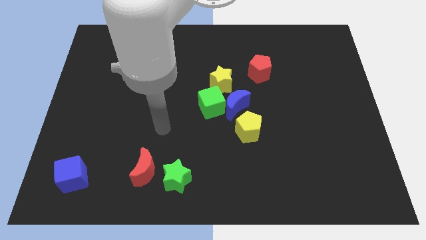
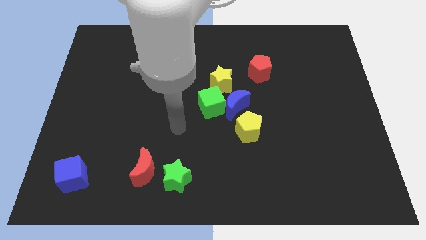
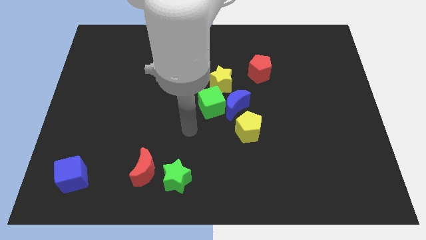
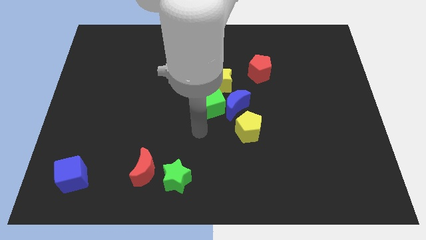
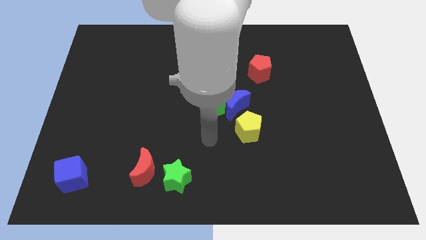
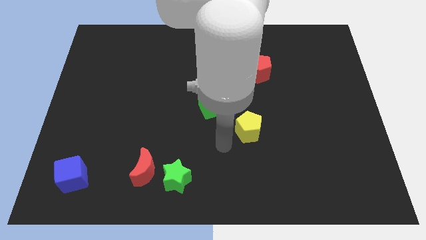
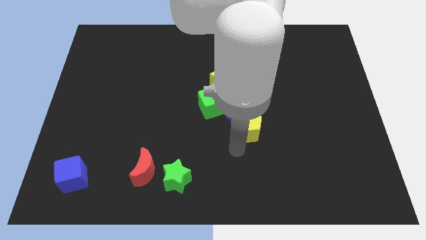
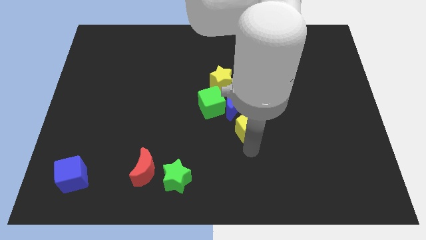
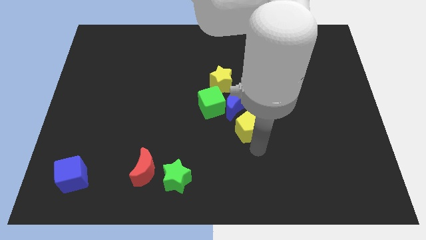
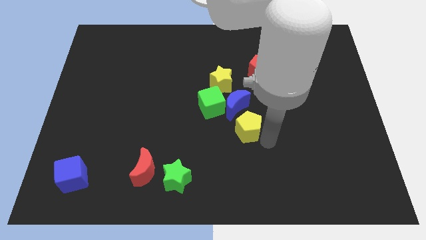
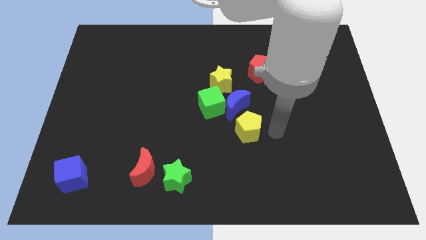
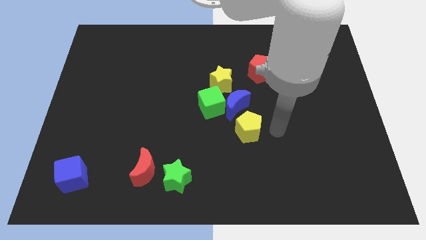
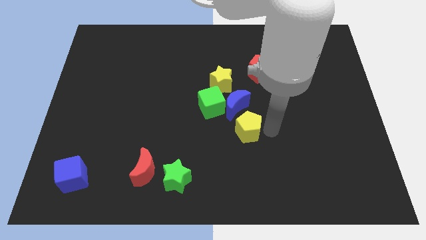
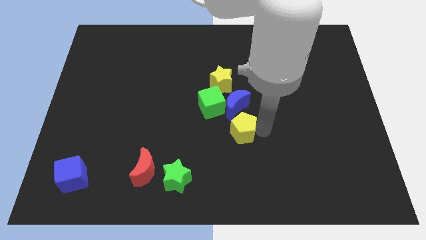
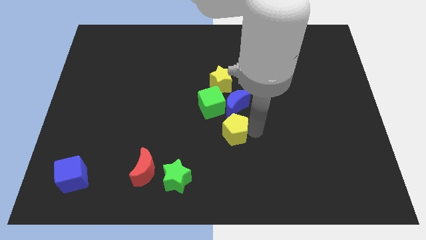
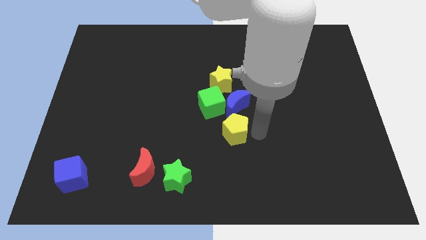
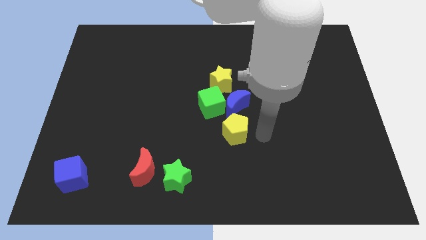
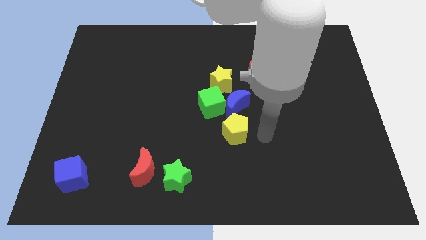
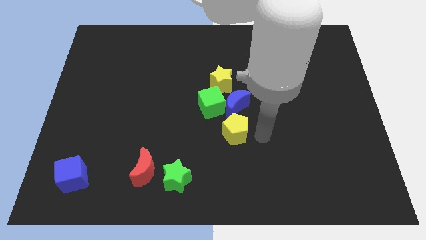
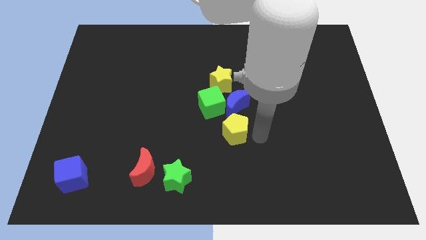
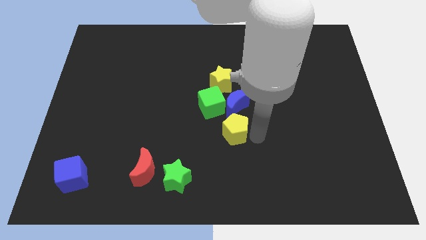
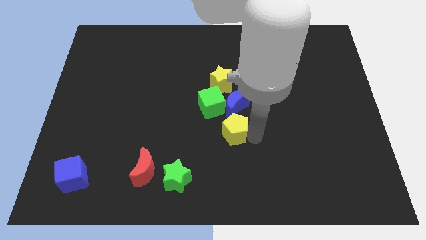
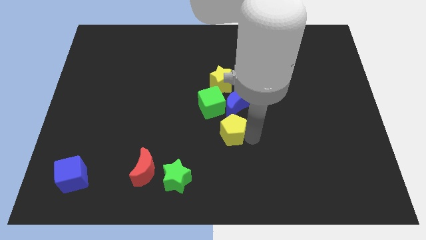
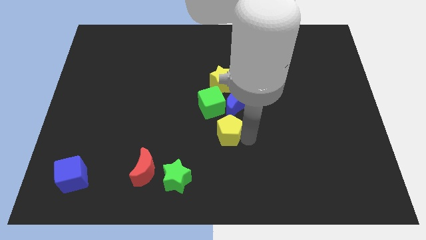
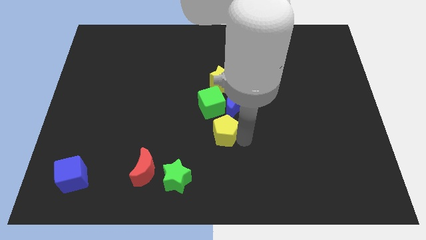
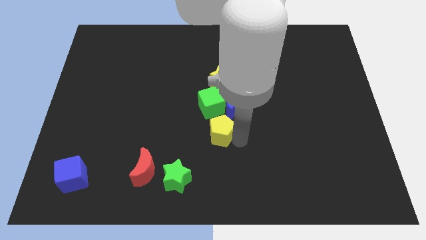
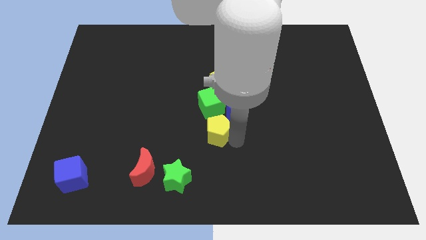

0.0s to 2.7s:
move the yellow pentagon left a little bit

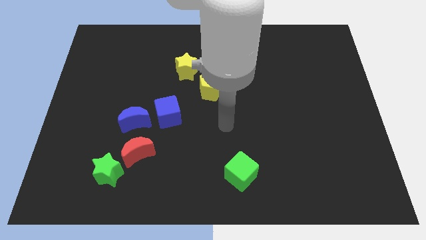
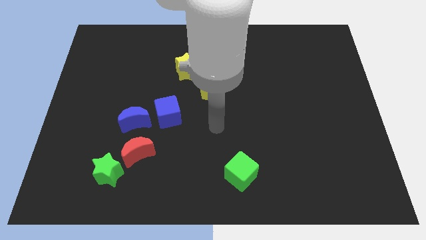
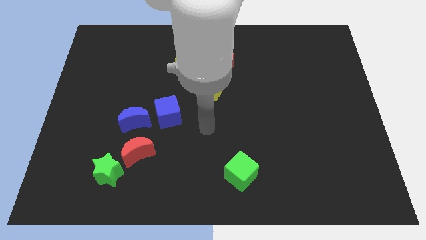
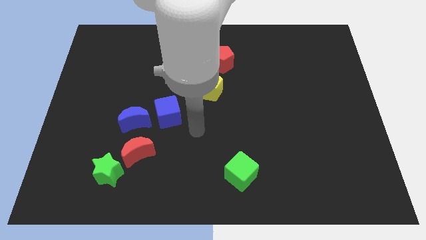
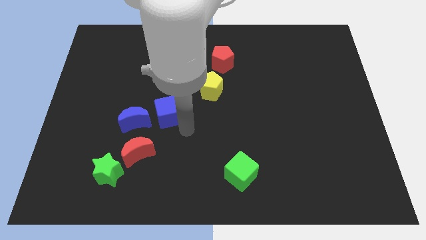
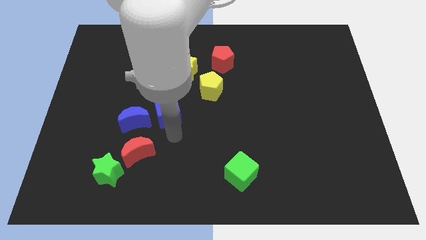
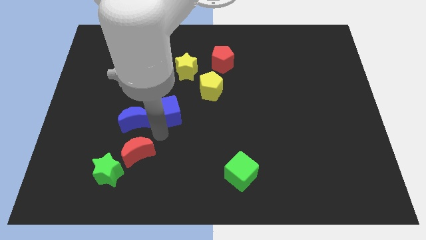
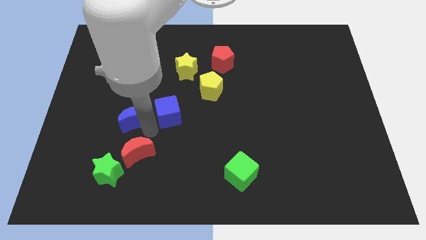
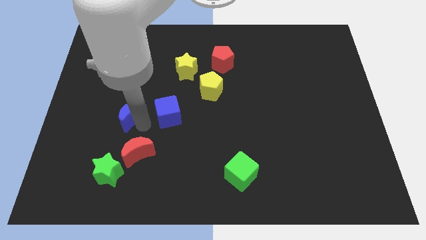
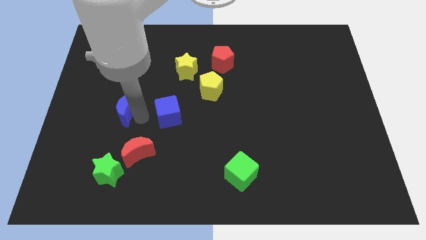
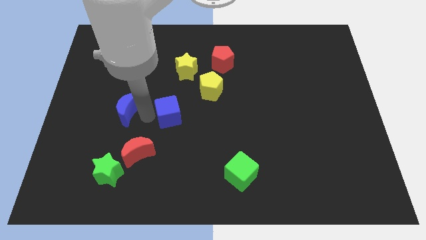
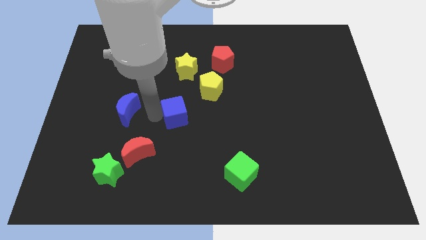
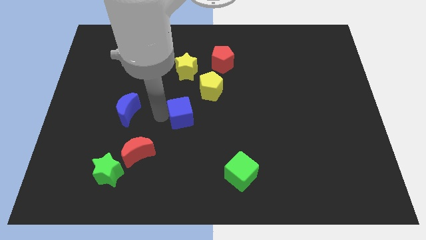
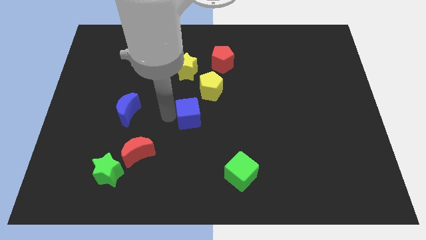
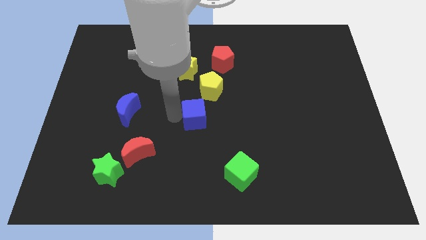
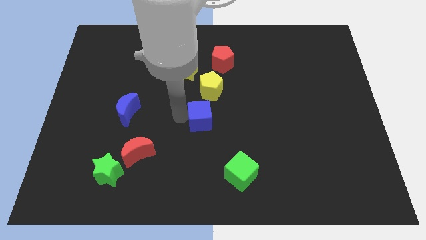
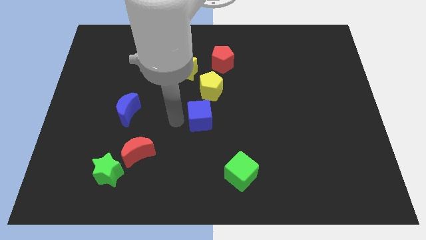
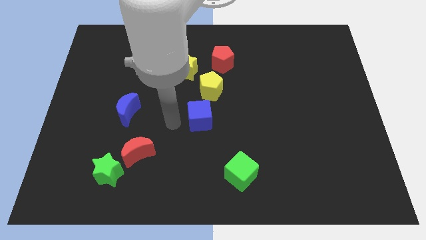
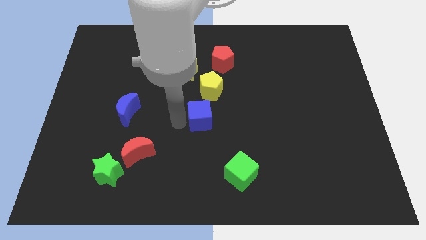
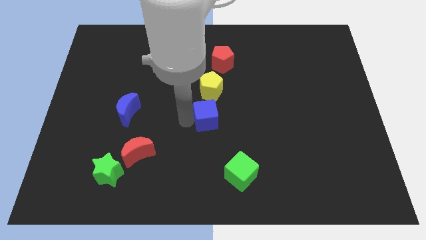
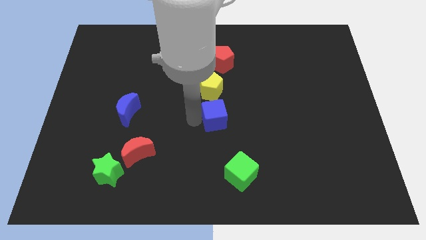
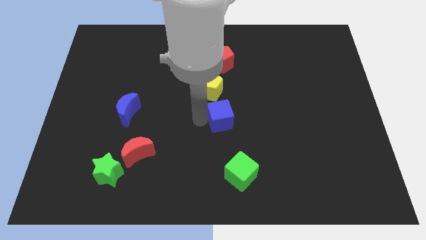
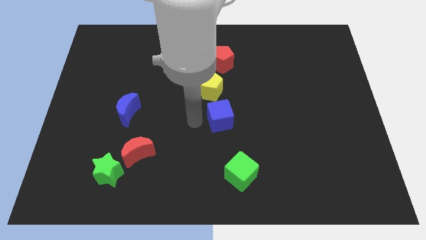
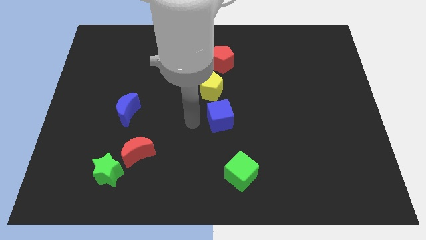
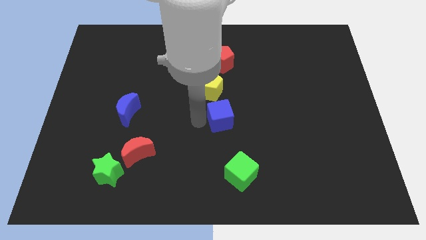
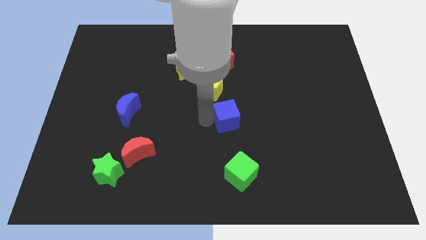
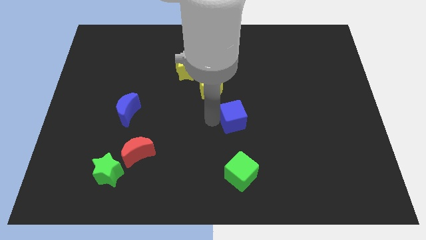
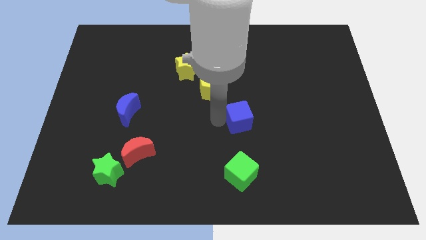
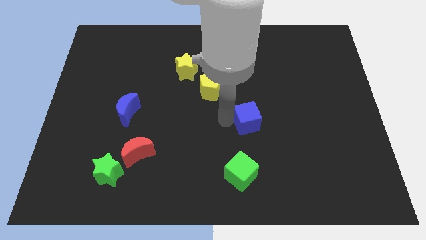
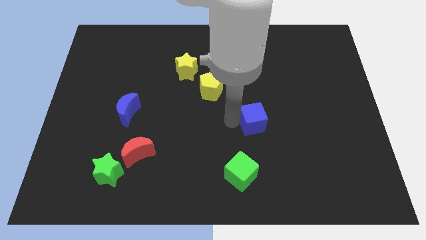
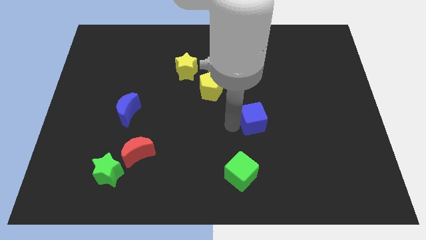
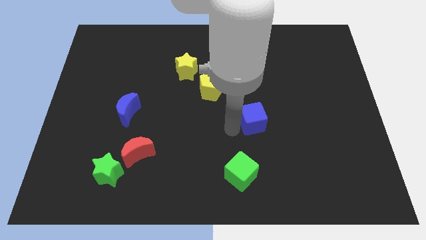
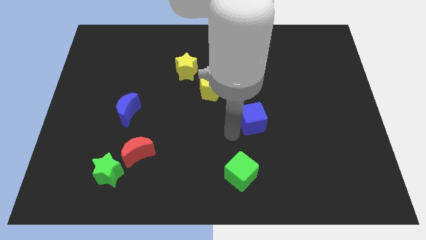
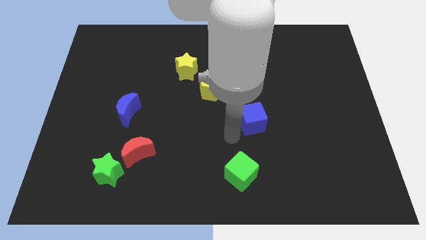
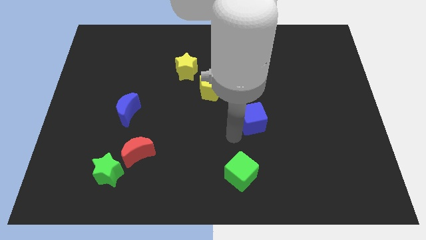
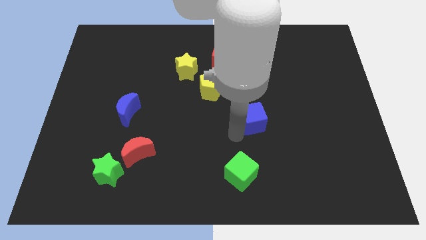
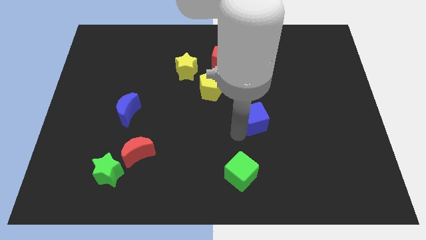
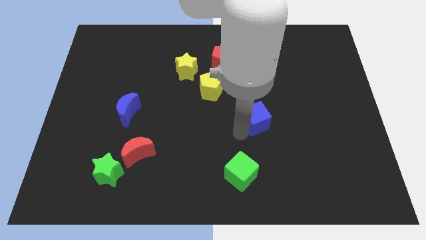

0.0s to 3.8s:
push the blue cube to the right

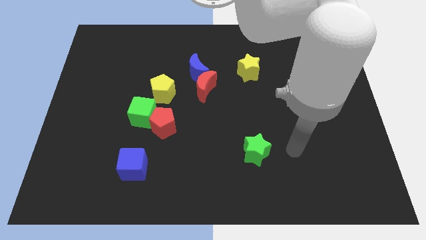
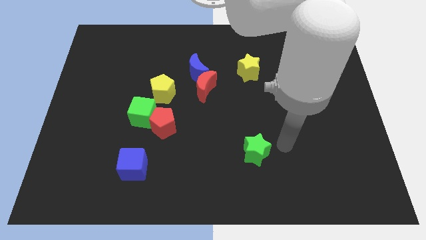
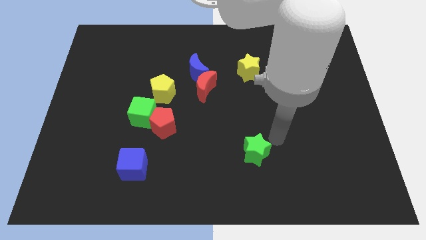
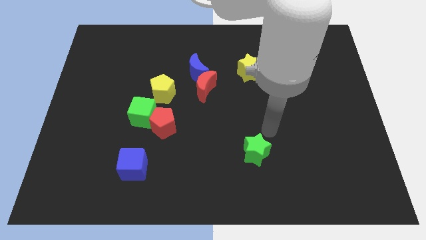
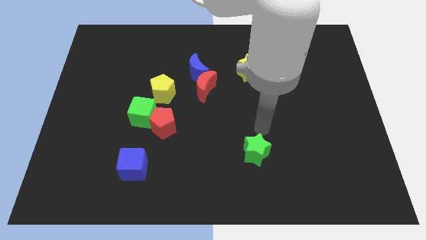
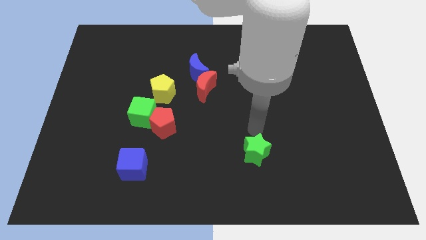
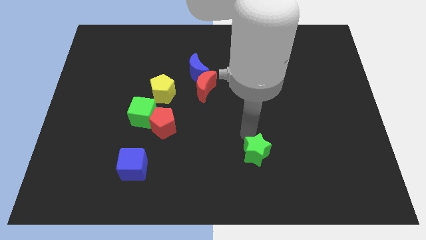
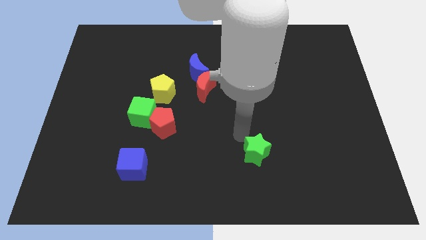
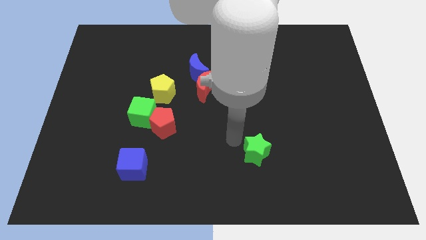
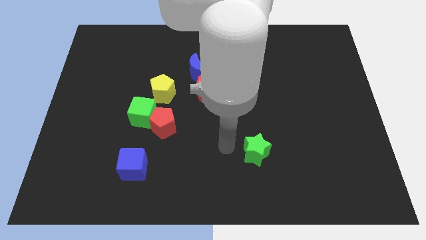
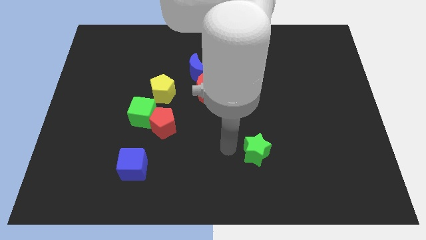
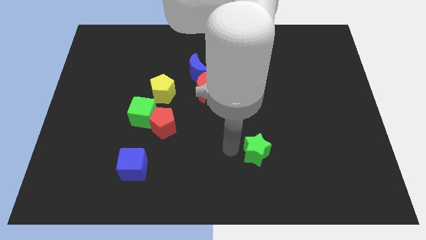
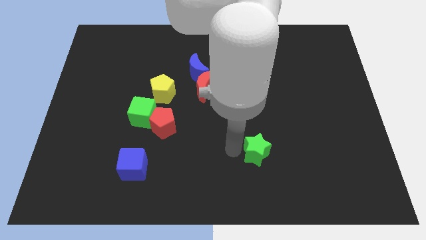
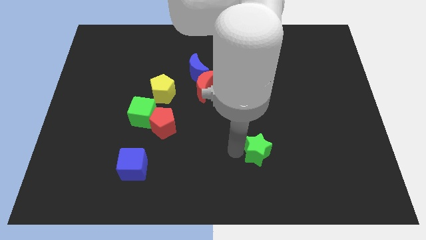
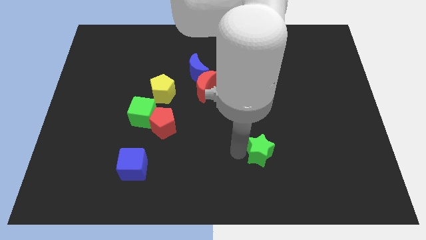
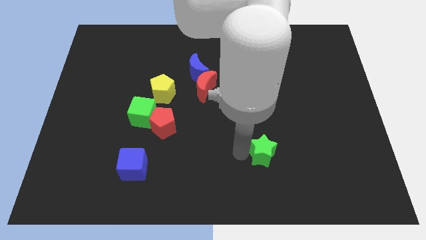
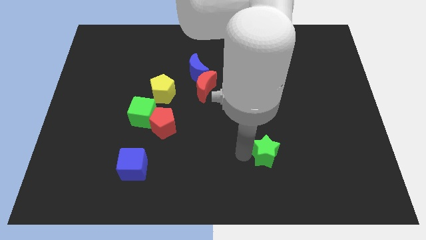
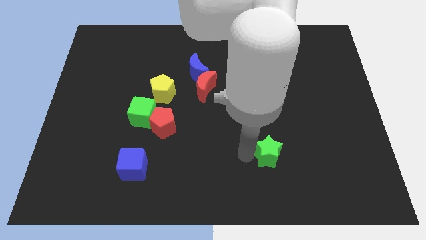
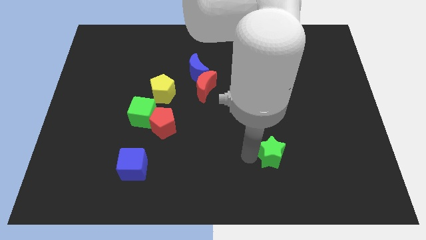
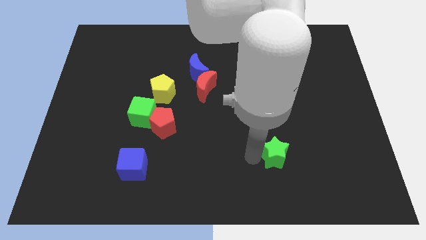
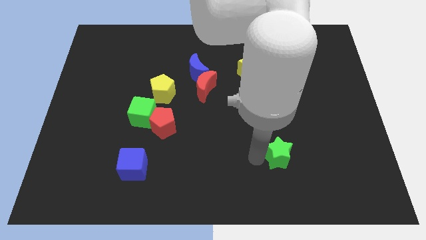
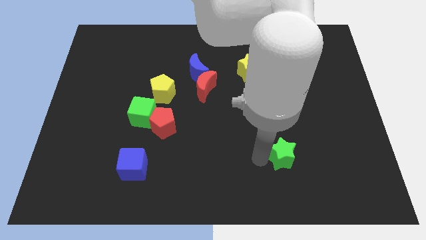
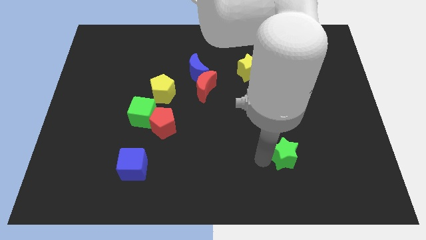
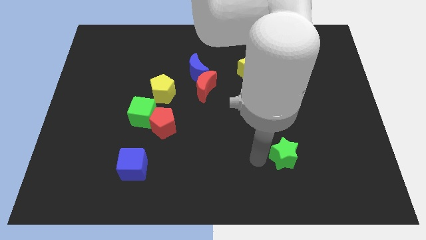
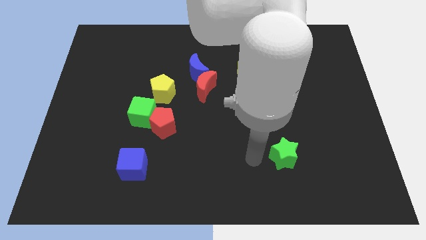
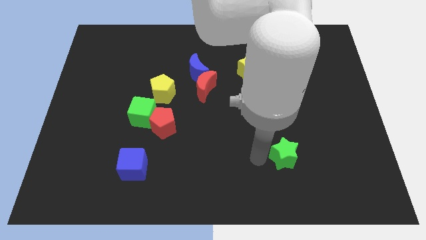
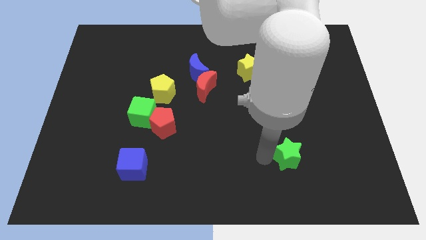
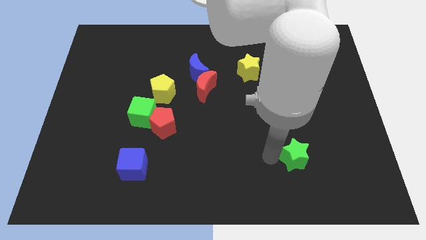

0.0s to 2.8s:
move the green star to the right a little
